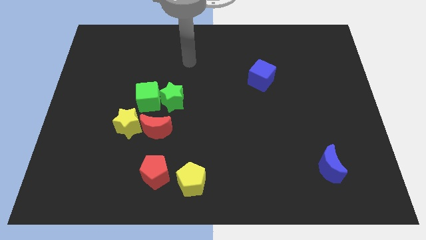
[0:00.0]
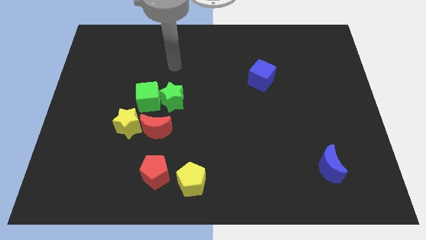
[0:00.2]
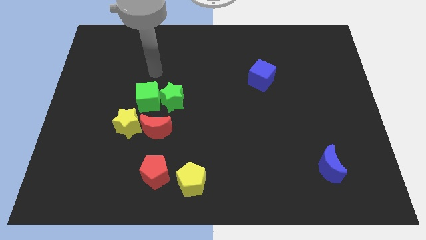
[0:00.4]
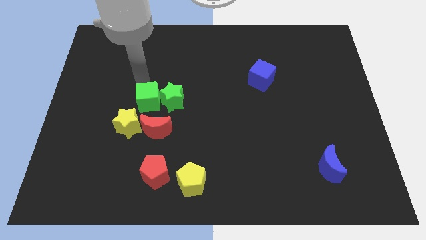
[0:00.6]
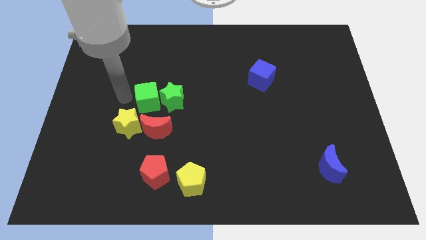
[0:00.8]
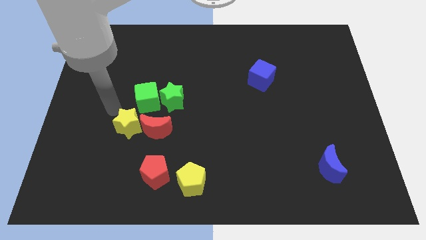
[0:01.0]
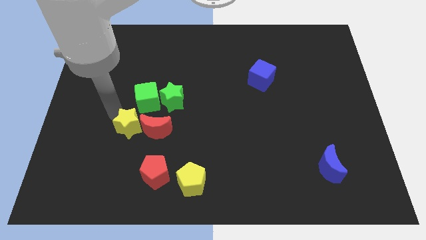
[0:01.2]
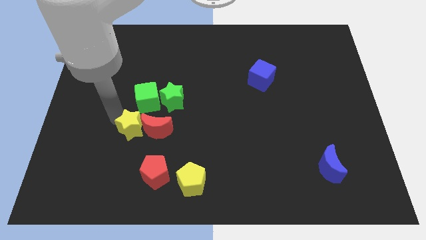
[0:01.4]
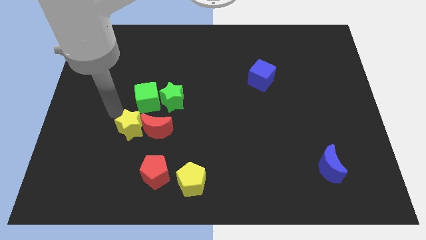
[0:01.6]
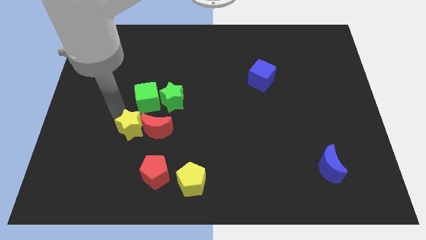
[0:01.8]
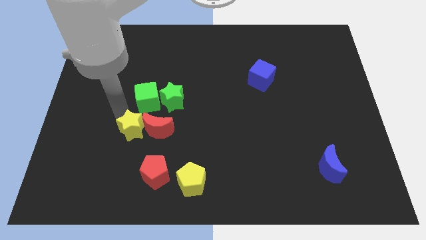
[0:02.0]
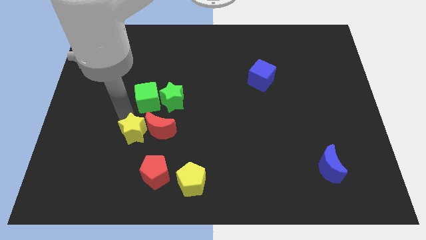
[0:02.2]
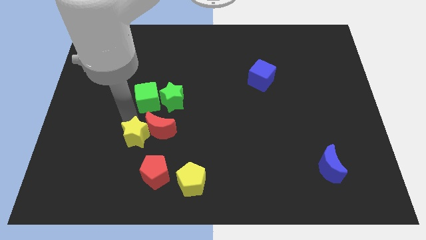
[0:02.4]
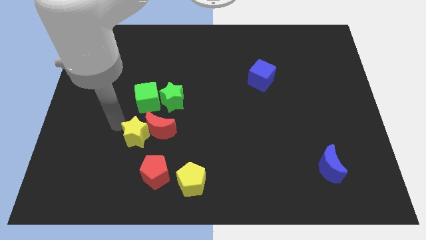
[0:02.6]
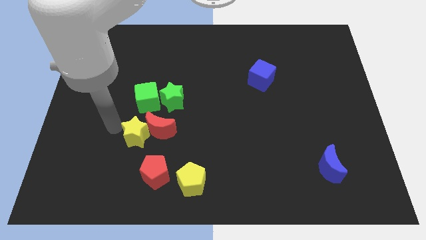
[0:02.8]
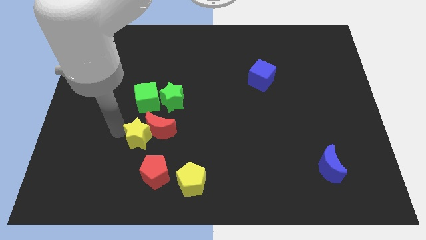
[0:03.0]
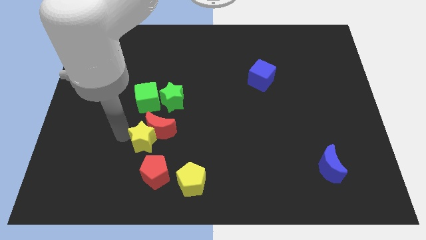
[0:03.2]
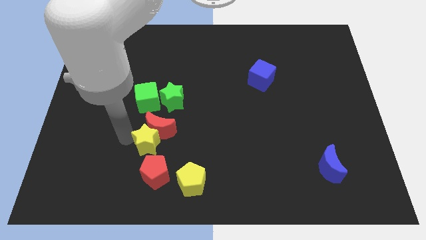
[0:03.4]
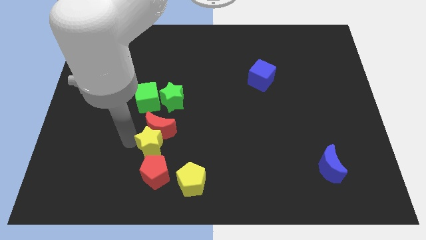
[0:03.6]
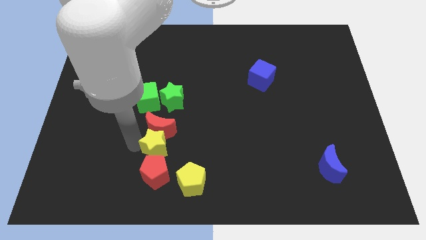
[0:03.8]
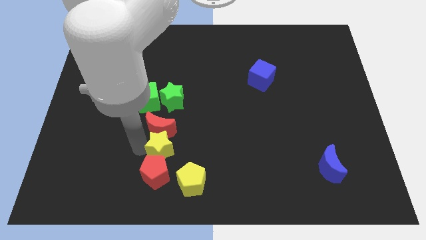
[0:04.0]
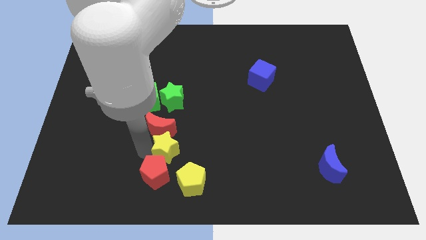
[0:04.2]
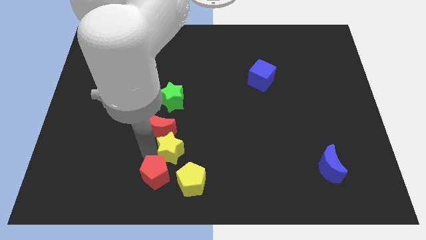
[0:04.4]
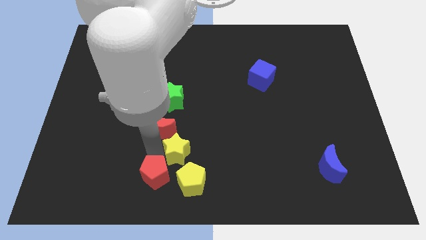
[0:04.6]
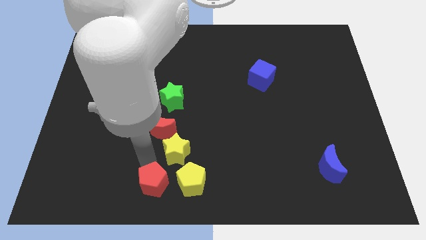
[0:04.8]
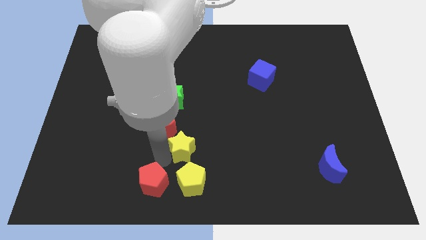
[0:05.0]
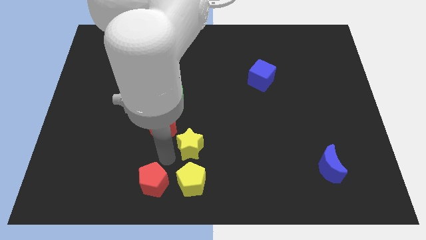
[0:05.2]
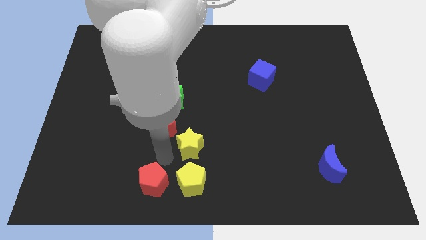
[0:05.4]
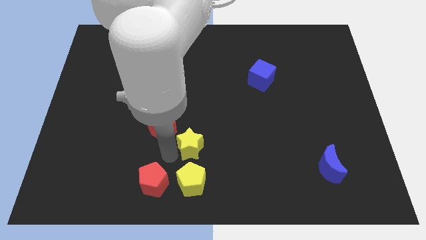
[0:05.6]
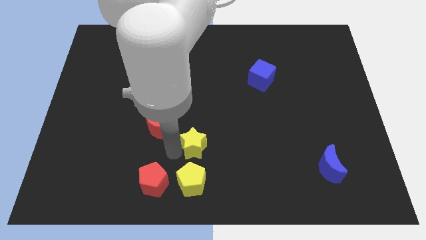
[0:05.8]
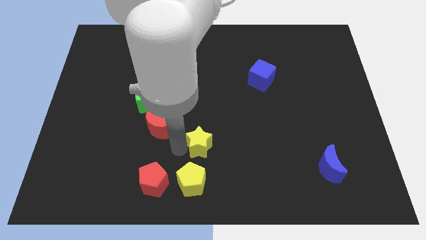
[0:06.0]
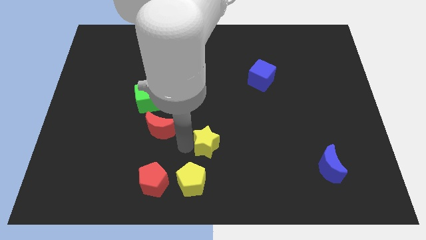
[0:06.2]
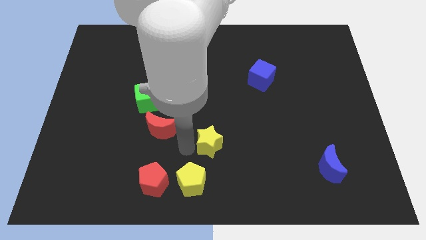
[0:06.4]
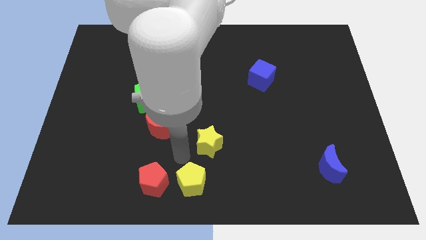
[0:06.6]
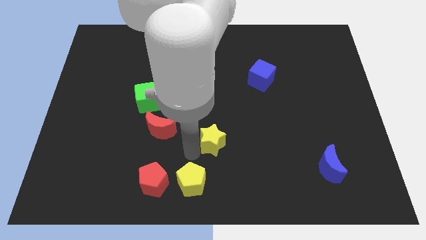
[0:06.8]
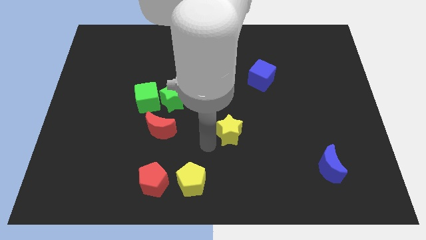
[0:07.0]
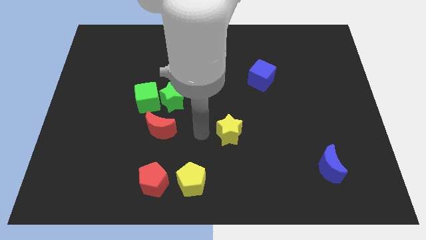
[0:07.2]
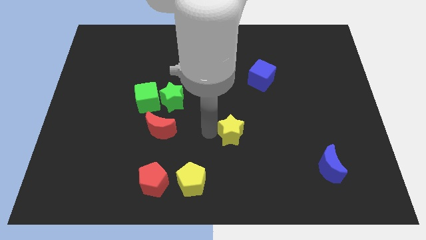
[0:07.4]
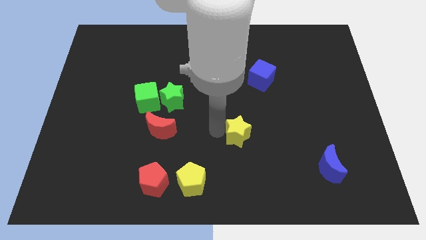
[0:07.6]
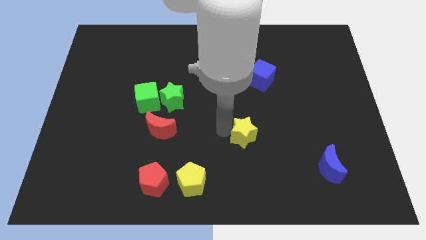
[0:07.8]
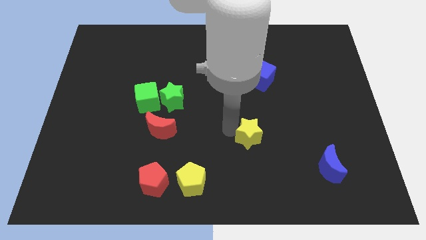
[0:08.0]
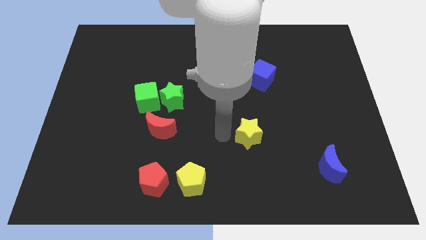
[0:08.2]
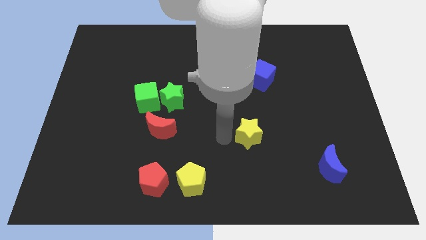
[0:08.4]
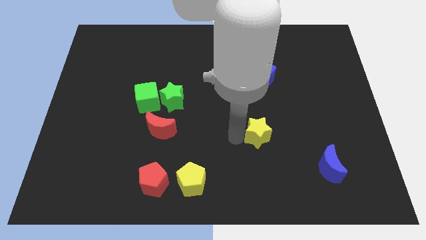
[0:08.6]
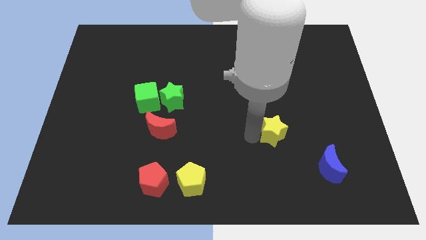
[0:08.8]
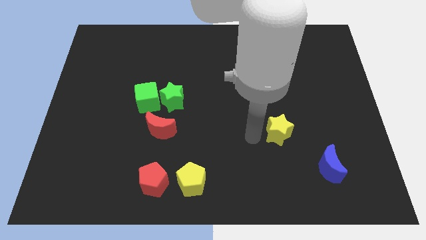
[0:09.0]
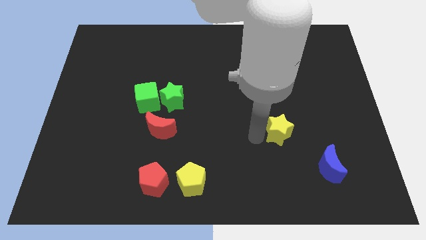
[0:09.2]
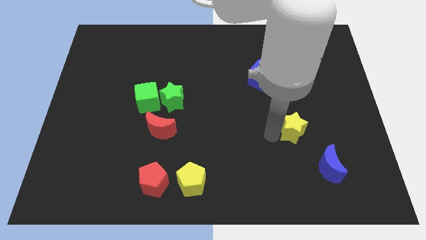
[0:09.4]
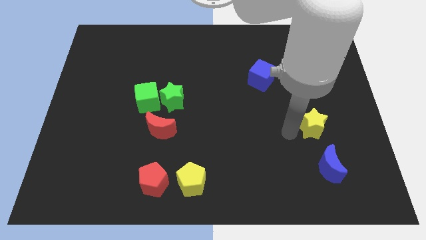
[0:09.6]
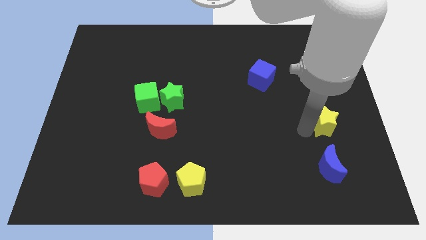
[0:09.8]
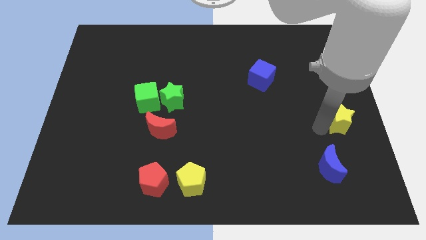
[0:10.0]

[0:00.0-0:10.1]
slide the yellow star to the center right

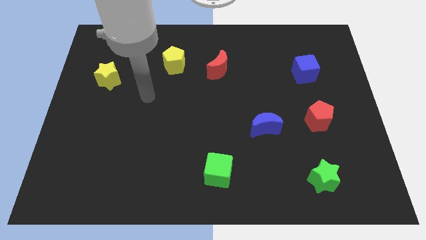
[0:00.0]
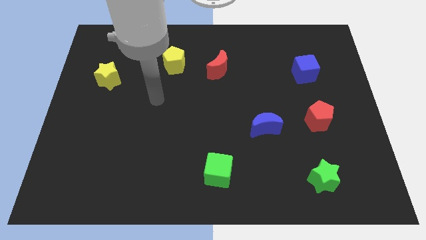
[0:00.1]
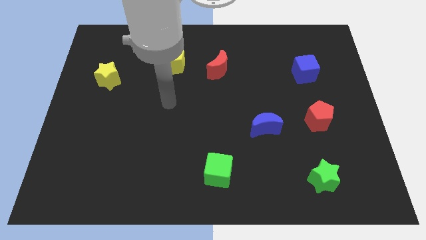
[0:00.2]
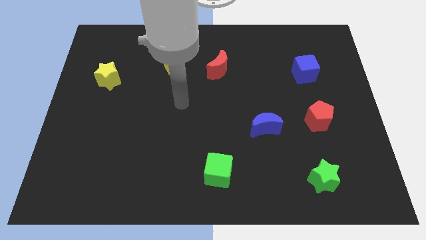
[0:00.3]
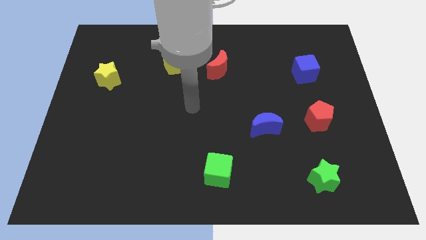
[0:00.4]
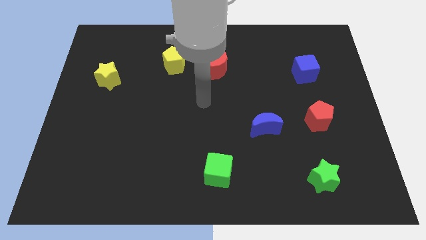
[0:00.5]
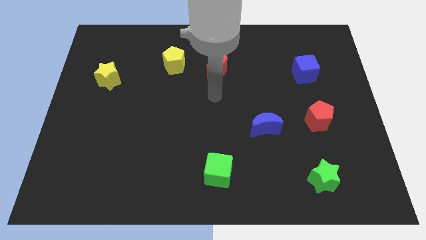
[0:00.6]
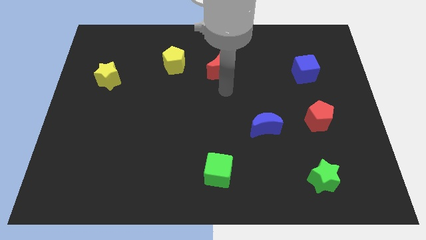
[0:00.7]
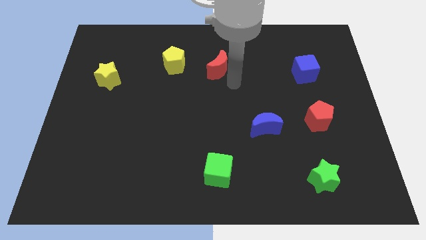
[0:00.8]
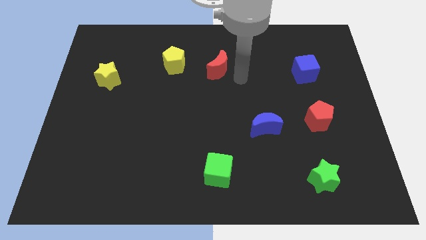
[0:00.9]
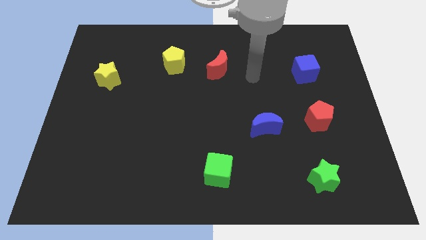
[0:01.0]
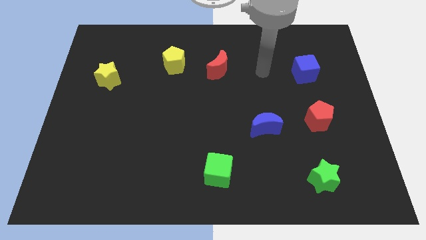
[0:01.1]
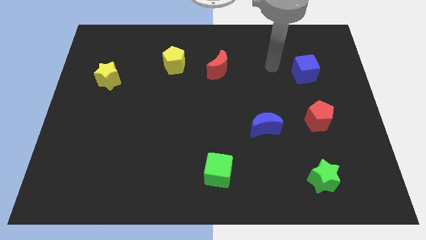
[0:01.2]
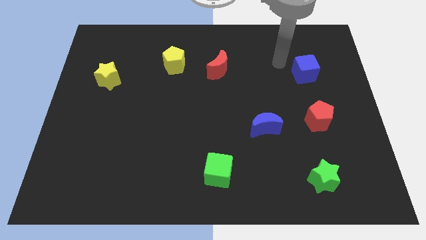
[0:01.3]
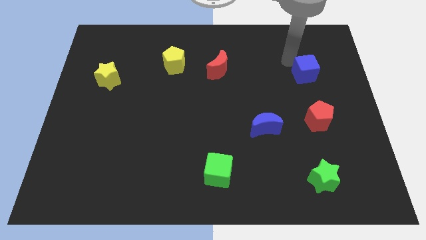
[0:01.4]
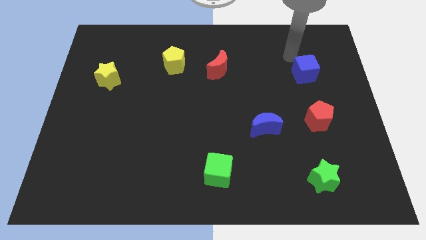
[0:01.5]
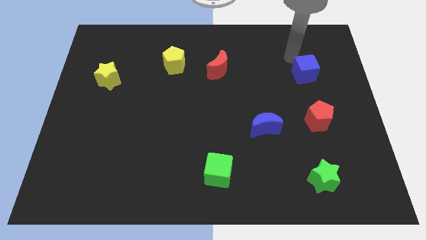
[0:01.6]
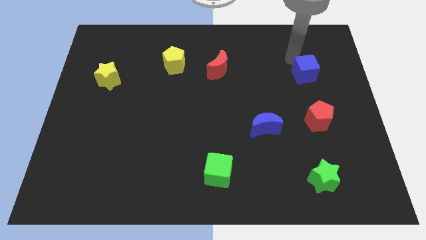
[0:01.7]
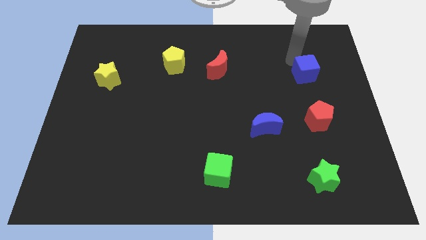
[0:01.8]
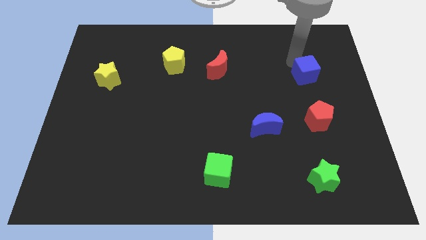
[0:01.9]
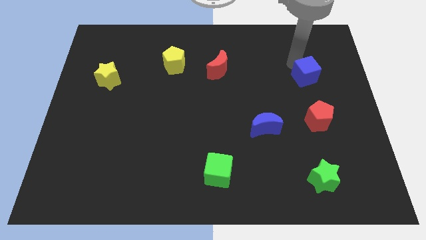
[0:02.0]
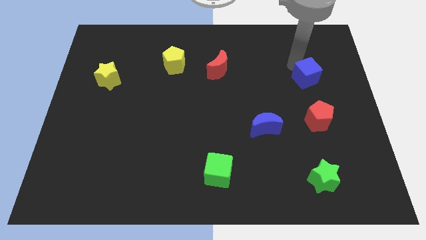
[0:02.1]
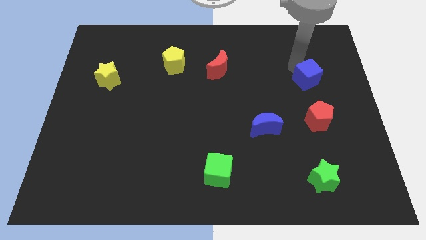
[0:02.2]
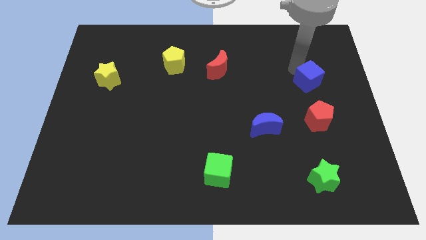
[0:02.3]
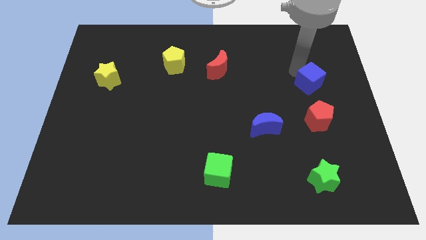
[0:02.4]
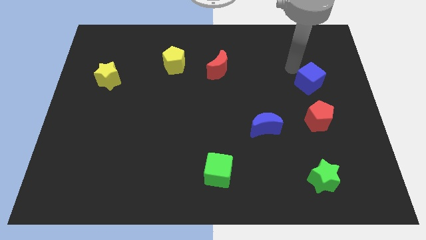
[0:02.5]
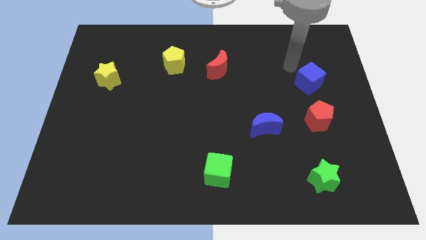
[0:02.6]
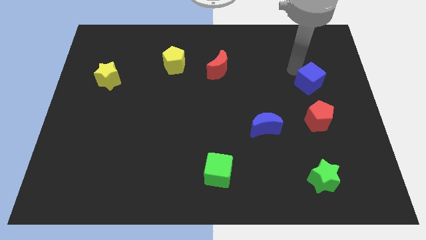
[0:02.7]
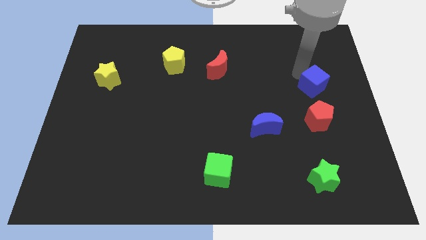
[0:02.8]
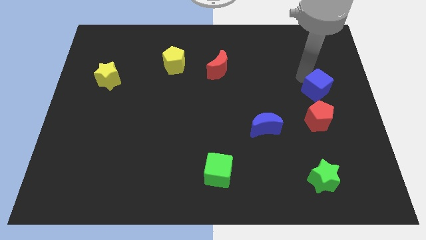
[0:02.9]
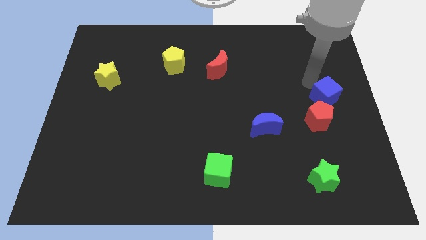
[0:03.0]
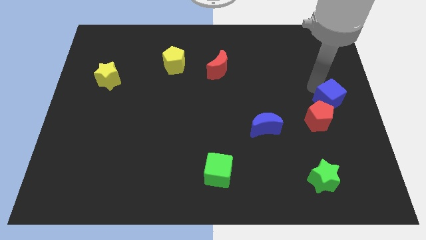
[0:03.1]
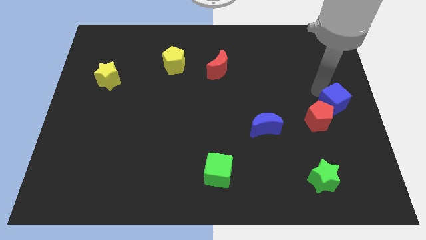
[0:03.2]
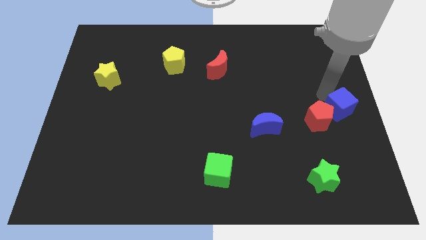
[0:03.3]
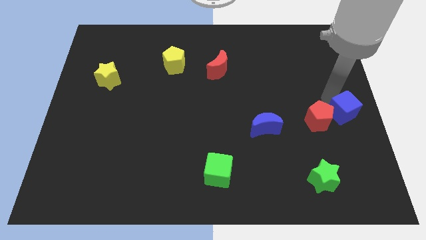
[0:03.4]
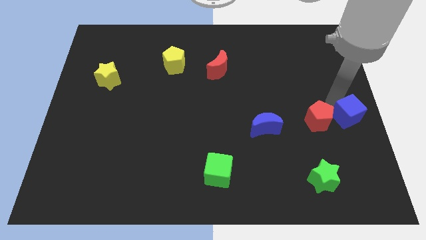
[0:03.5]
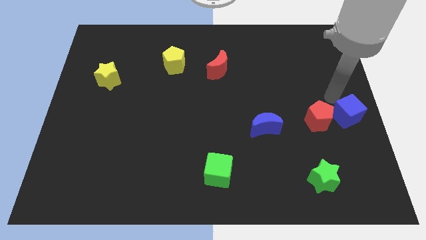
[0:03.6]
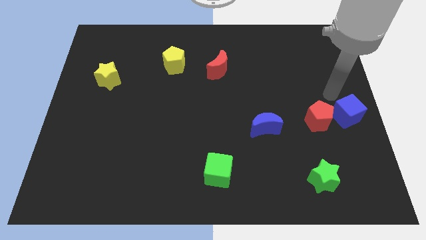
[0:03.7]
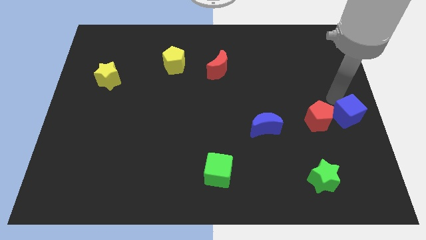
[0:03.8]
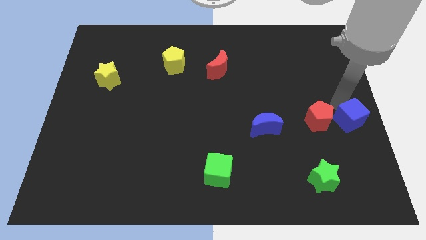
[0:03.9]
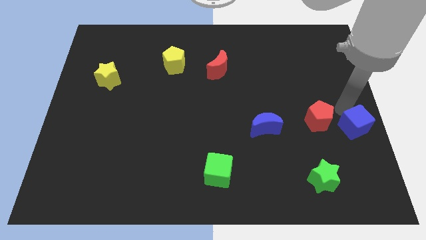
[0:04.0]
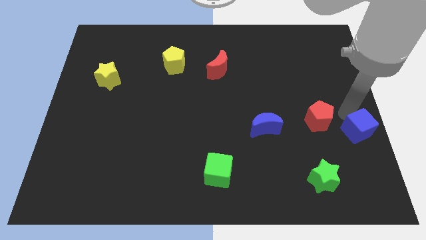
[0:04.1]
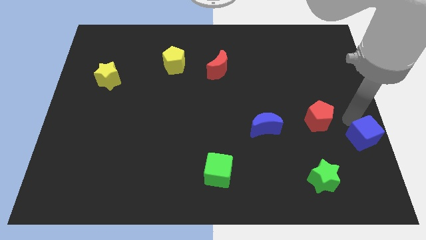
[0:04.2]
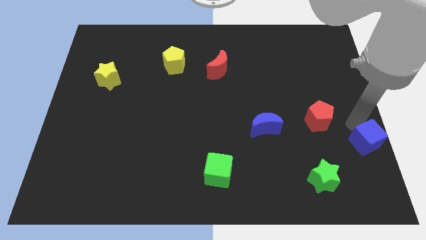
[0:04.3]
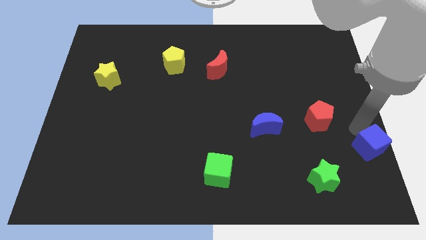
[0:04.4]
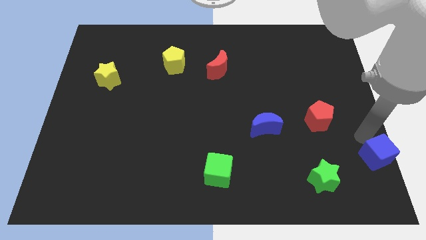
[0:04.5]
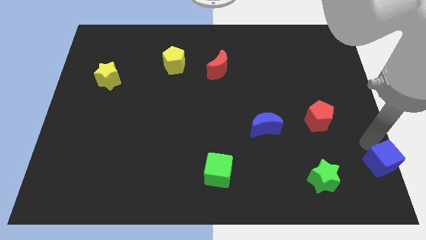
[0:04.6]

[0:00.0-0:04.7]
put the blue cube to the bottom right of the board
